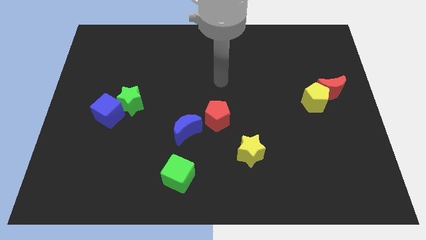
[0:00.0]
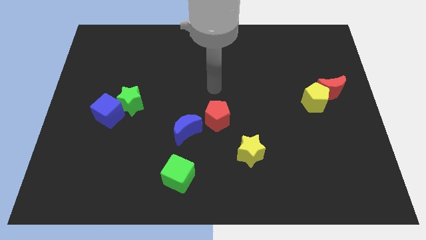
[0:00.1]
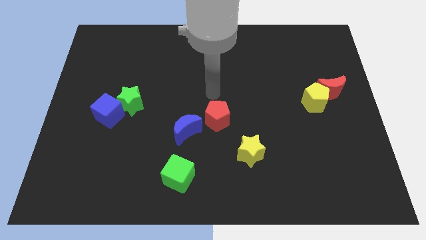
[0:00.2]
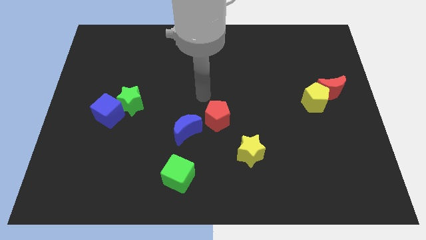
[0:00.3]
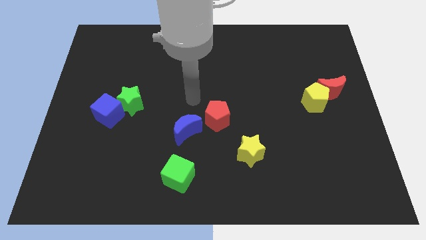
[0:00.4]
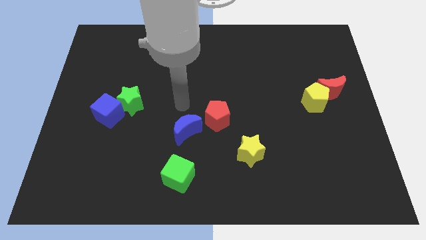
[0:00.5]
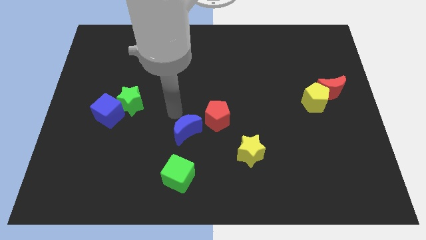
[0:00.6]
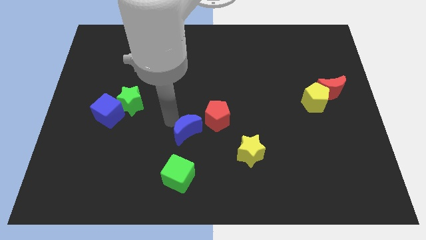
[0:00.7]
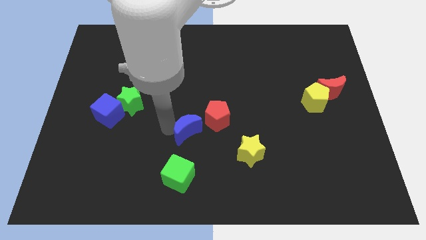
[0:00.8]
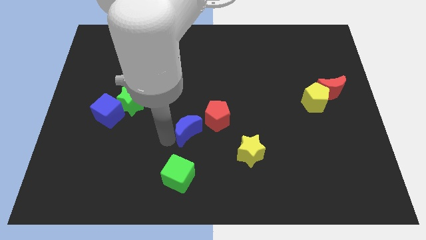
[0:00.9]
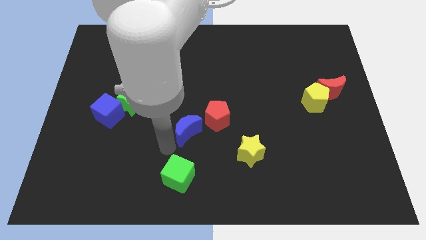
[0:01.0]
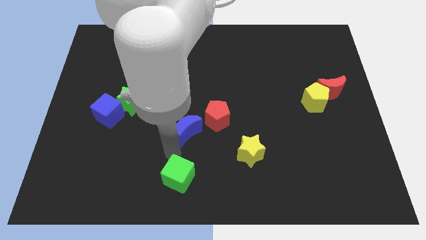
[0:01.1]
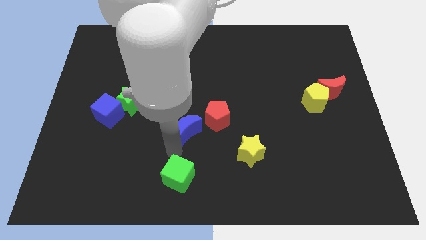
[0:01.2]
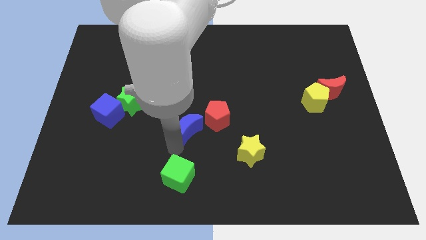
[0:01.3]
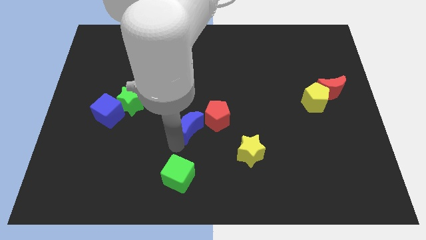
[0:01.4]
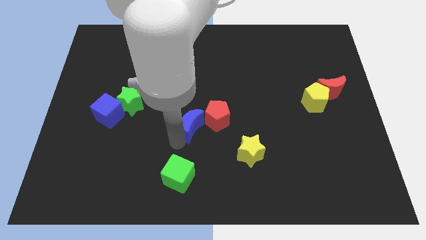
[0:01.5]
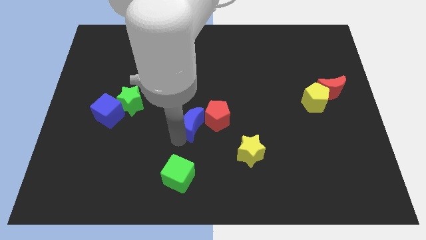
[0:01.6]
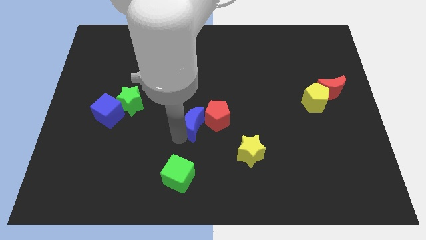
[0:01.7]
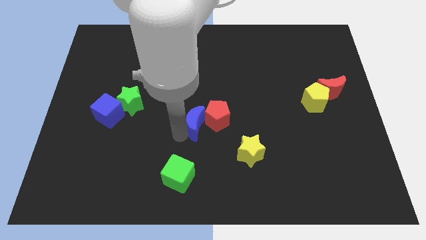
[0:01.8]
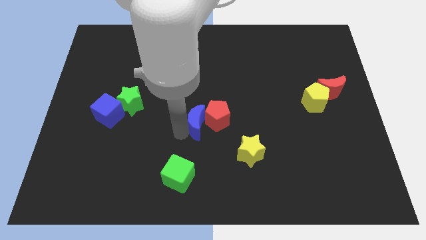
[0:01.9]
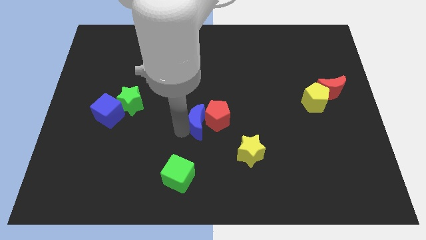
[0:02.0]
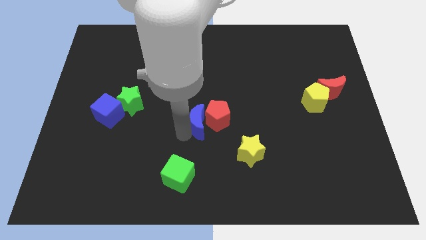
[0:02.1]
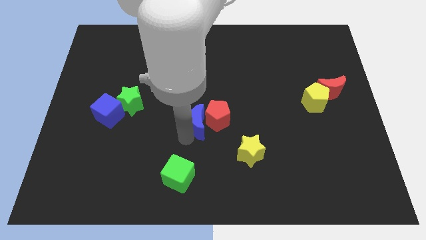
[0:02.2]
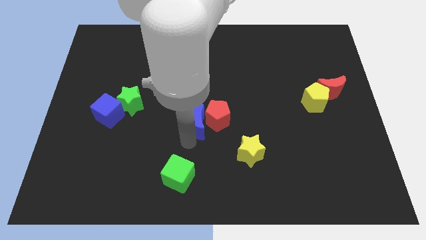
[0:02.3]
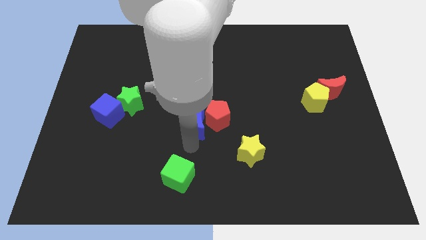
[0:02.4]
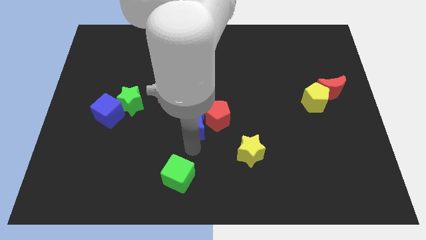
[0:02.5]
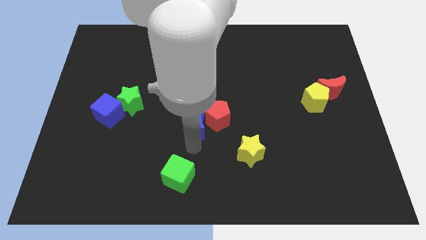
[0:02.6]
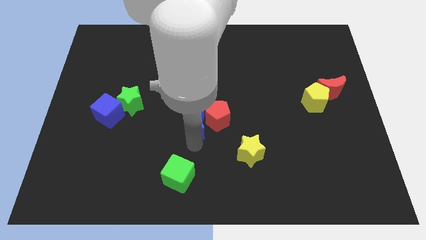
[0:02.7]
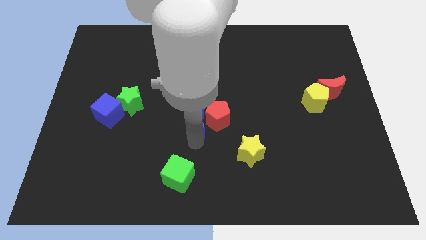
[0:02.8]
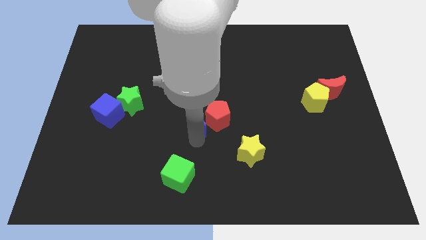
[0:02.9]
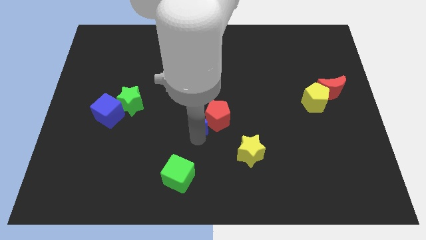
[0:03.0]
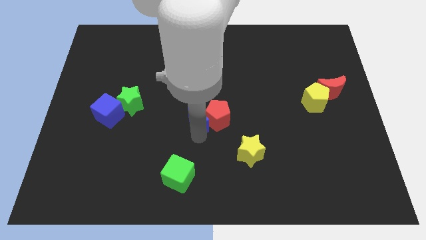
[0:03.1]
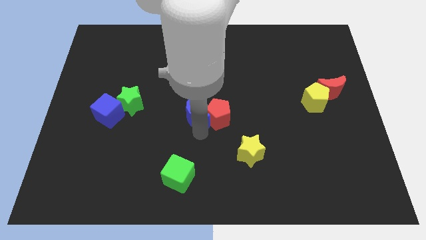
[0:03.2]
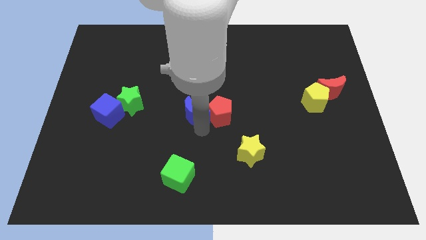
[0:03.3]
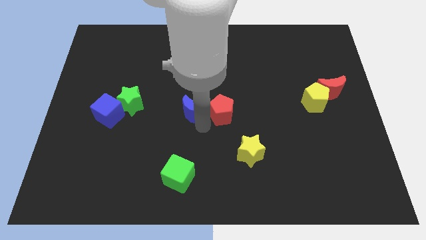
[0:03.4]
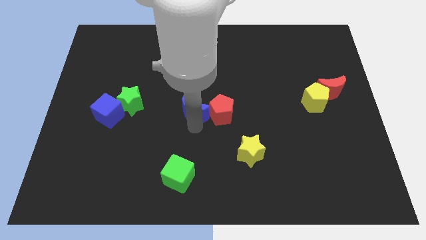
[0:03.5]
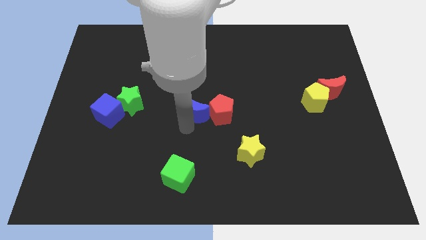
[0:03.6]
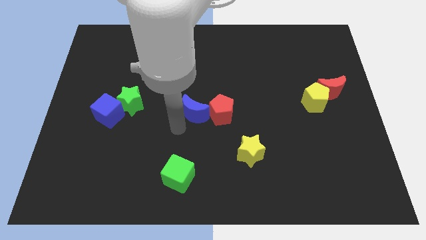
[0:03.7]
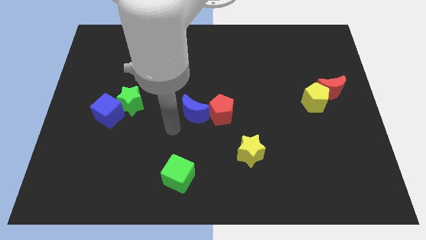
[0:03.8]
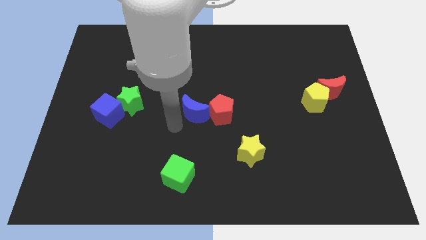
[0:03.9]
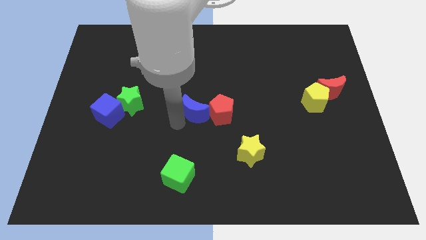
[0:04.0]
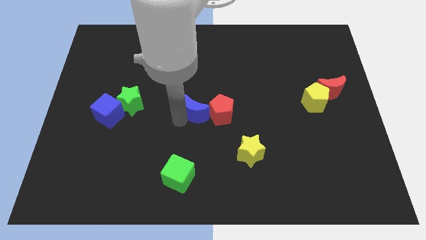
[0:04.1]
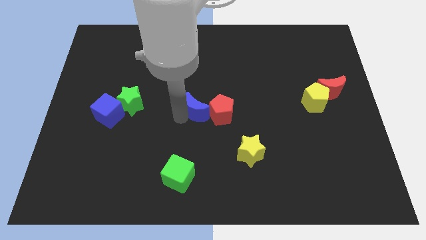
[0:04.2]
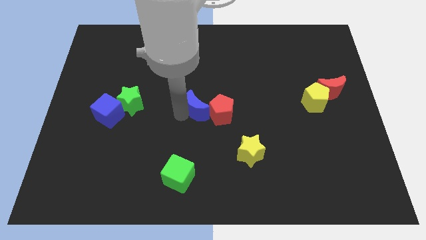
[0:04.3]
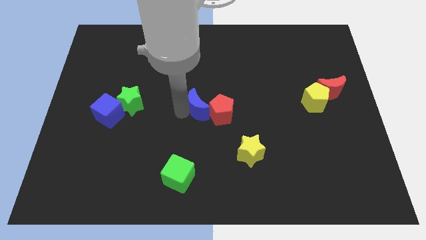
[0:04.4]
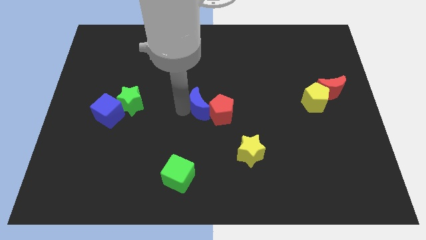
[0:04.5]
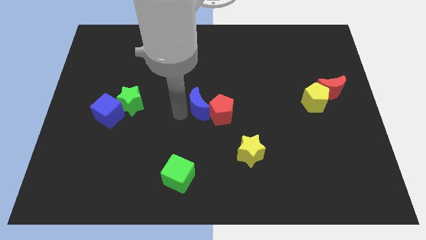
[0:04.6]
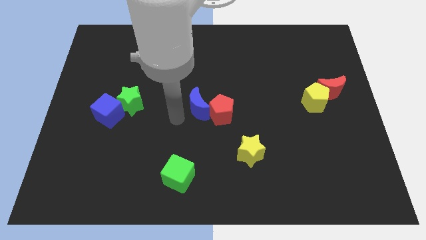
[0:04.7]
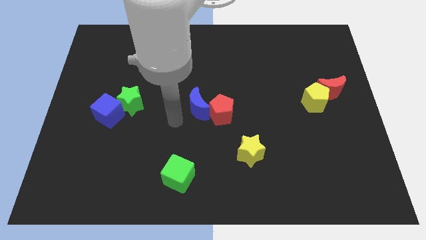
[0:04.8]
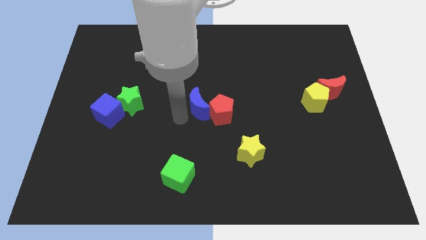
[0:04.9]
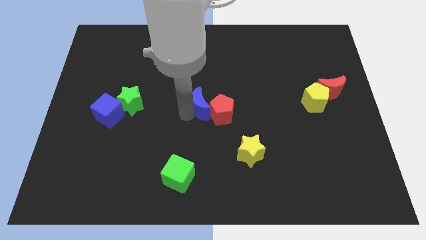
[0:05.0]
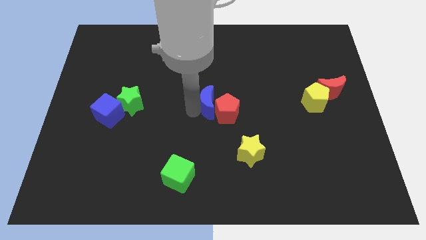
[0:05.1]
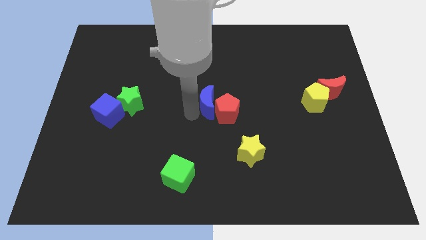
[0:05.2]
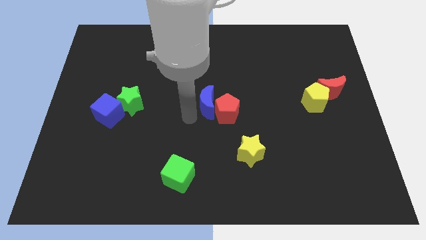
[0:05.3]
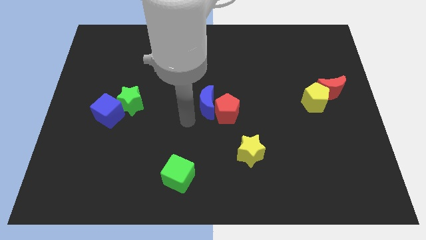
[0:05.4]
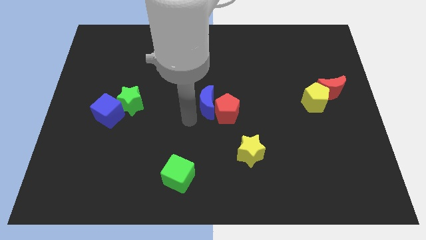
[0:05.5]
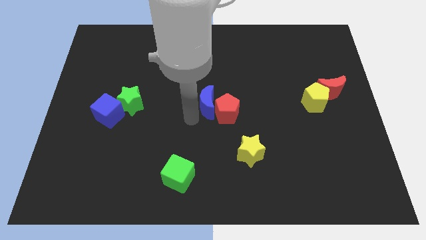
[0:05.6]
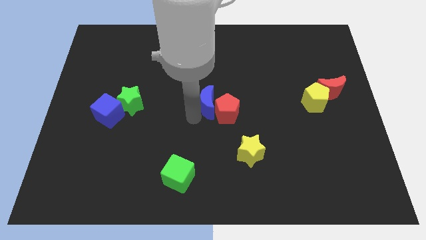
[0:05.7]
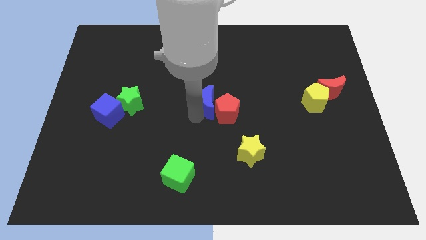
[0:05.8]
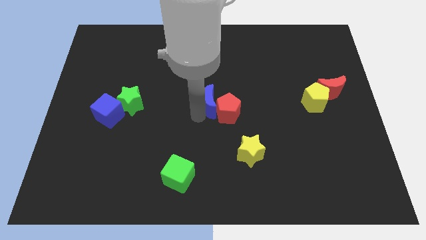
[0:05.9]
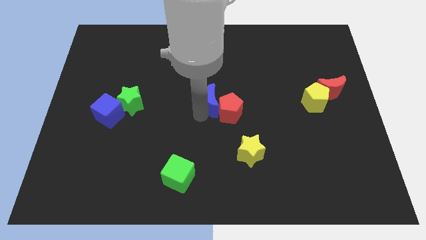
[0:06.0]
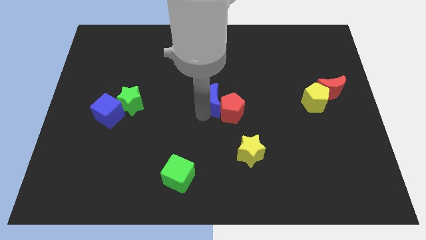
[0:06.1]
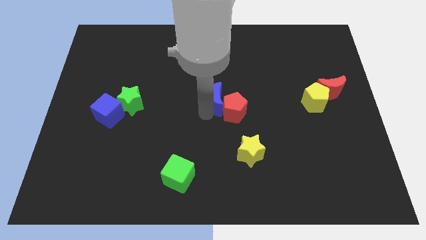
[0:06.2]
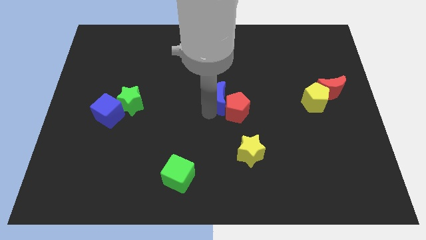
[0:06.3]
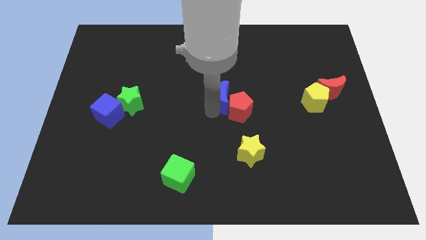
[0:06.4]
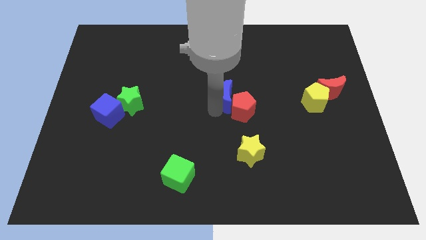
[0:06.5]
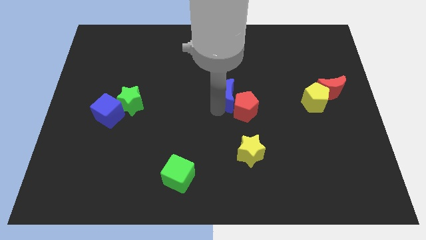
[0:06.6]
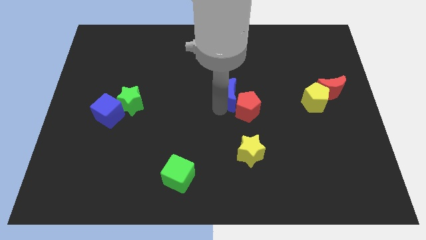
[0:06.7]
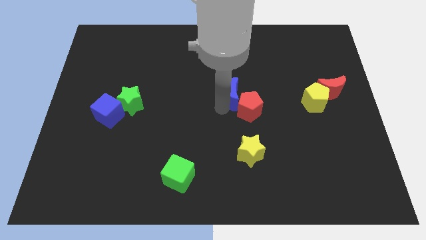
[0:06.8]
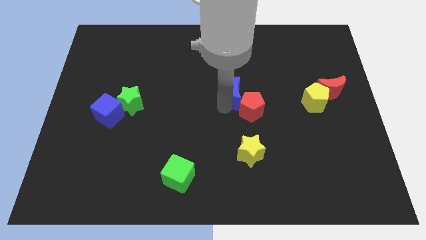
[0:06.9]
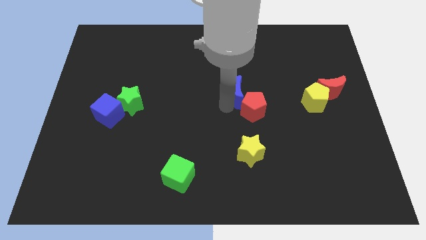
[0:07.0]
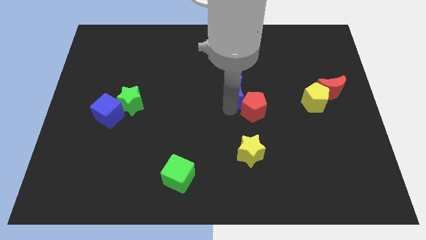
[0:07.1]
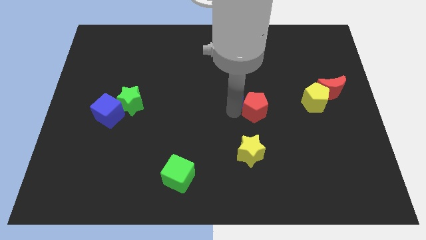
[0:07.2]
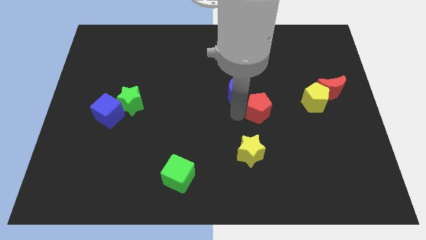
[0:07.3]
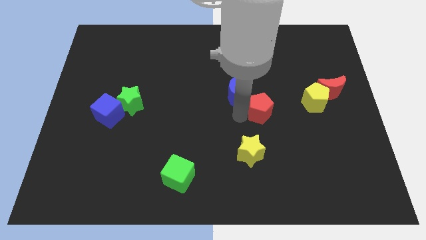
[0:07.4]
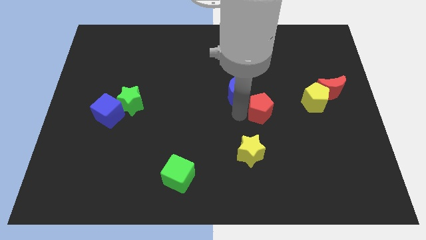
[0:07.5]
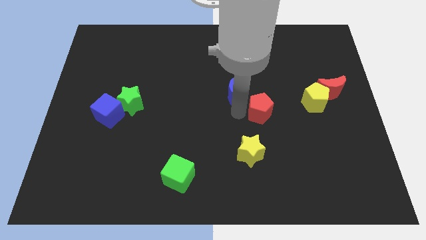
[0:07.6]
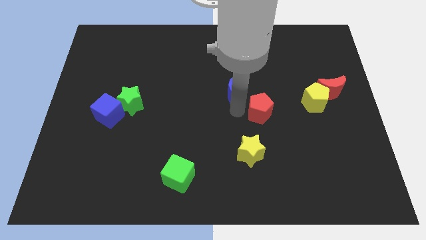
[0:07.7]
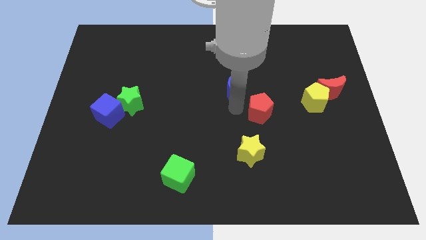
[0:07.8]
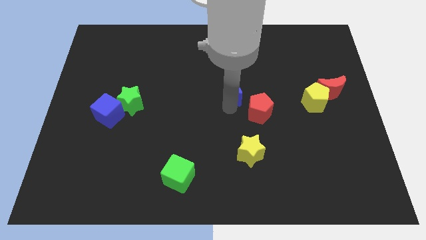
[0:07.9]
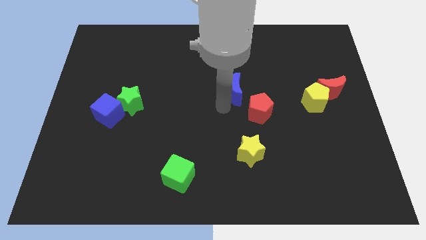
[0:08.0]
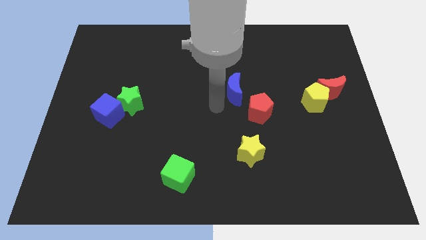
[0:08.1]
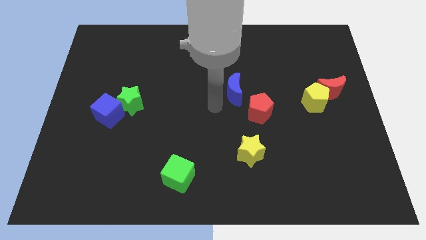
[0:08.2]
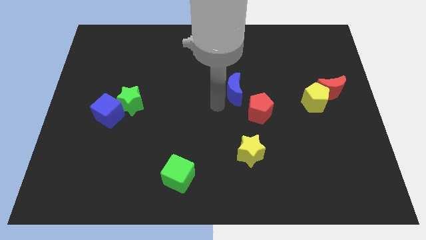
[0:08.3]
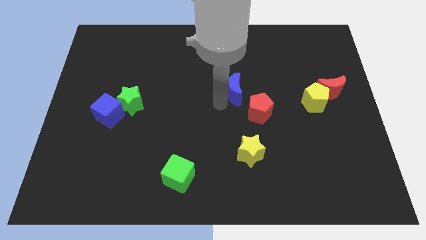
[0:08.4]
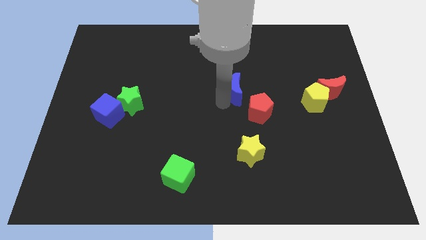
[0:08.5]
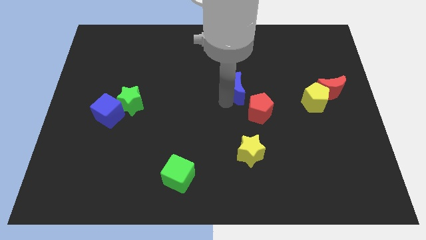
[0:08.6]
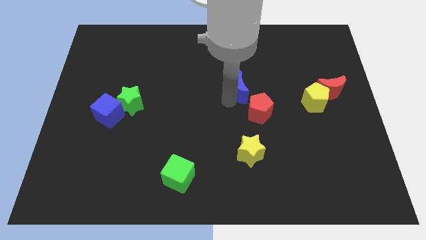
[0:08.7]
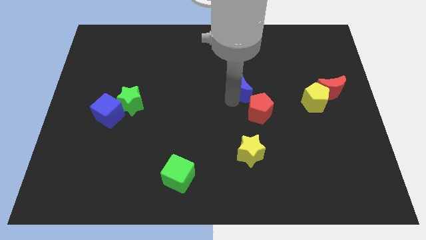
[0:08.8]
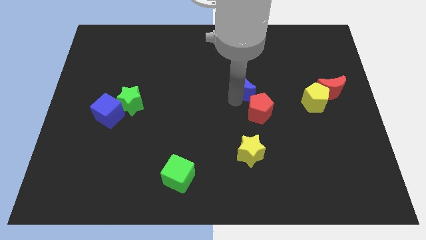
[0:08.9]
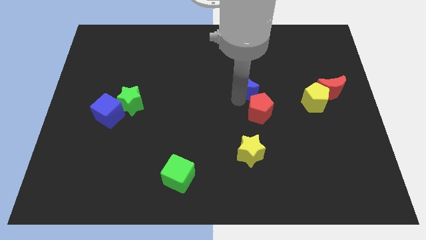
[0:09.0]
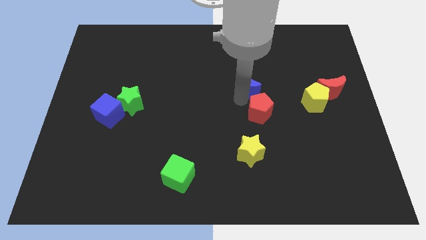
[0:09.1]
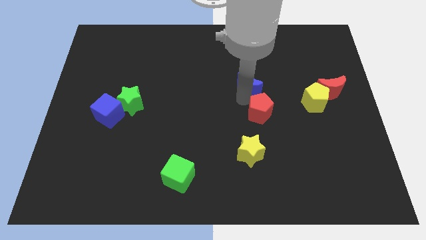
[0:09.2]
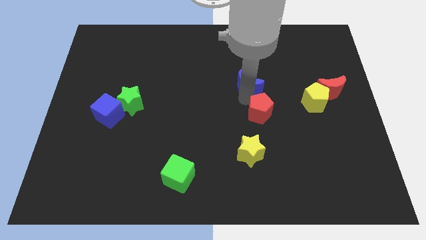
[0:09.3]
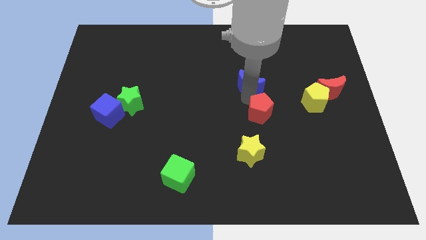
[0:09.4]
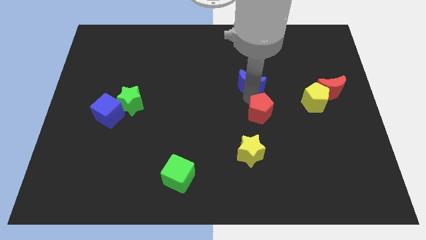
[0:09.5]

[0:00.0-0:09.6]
slide the blue moon upwards and right
